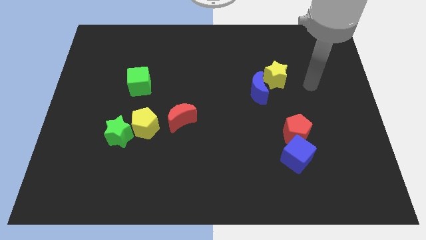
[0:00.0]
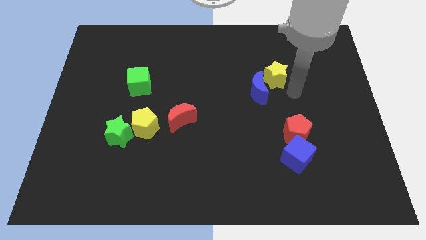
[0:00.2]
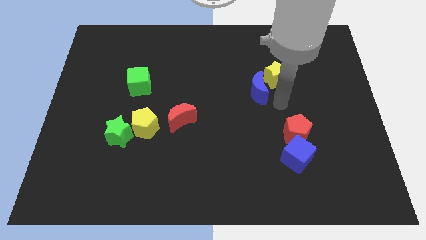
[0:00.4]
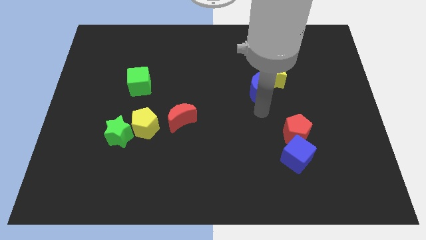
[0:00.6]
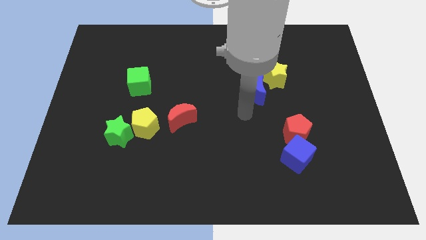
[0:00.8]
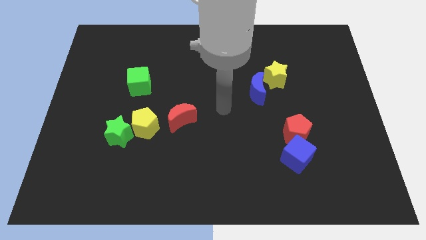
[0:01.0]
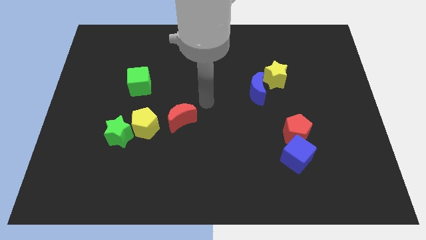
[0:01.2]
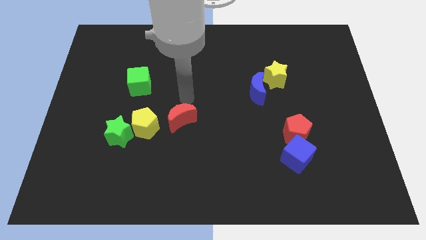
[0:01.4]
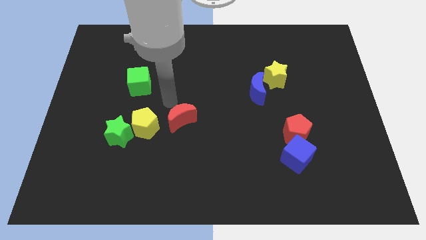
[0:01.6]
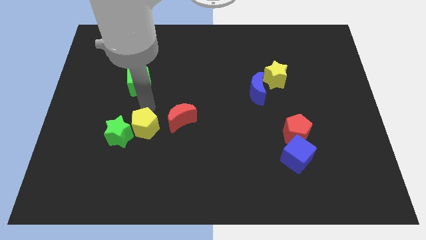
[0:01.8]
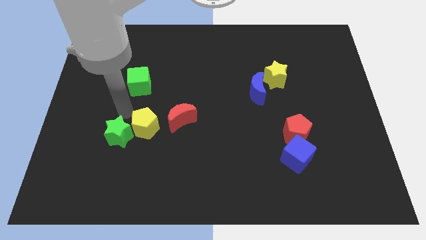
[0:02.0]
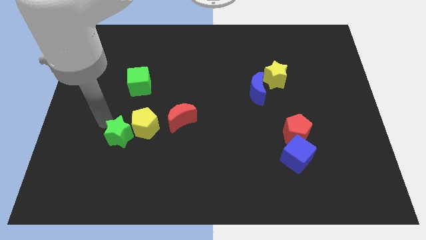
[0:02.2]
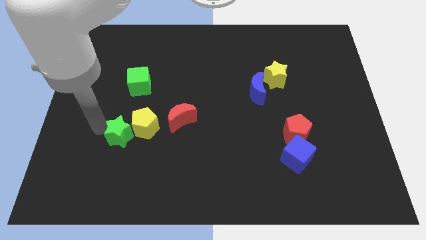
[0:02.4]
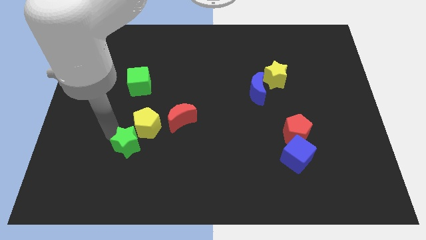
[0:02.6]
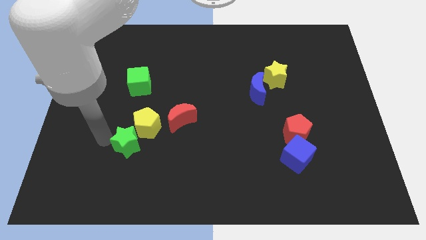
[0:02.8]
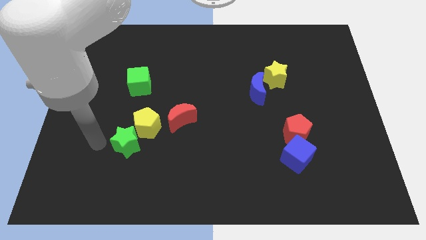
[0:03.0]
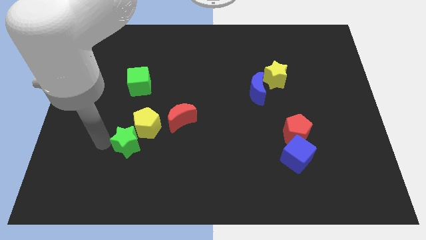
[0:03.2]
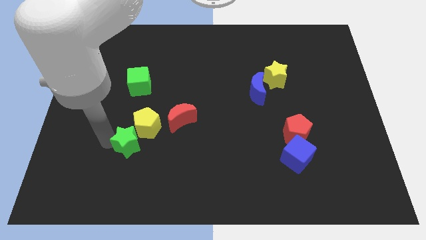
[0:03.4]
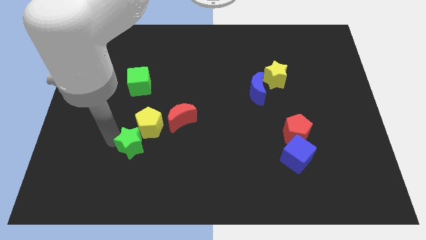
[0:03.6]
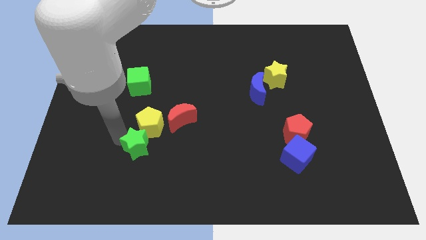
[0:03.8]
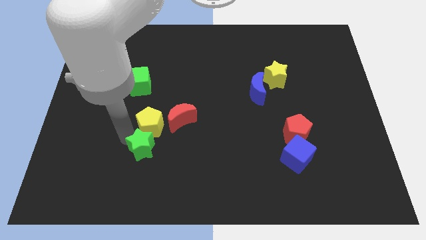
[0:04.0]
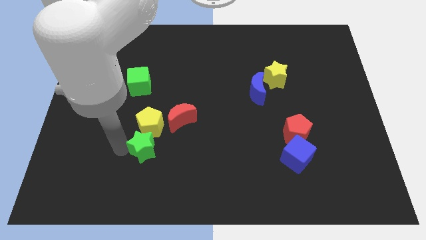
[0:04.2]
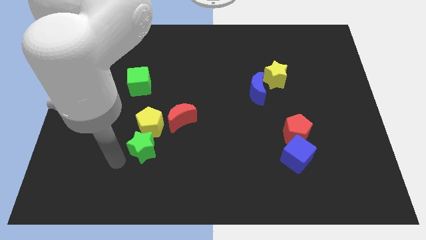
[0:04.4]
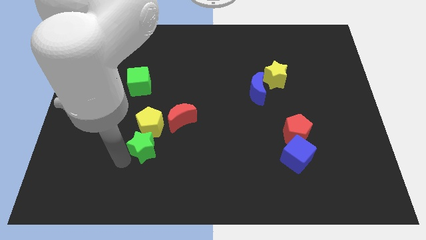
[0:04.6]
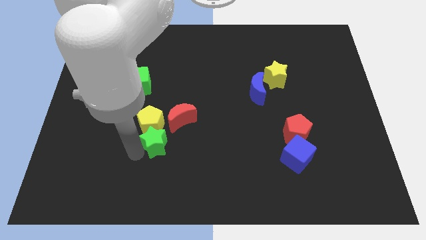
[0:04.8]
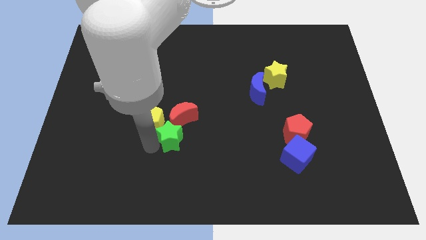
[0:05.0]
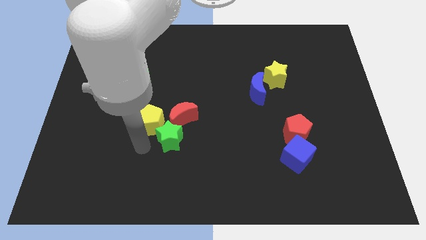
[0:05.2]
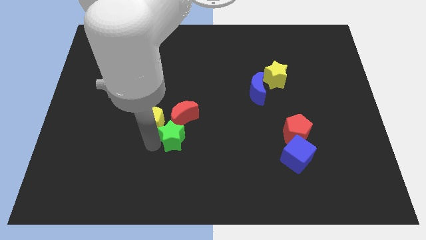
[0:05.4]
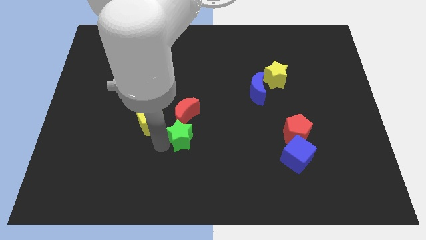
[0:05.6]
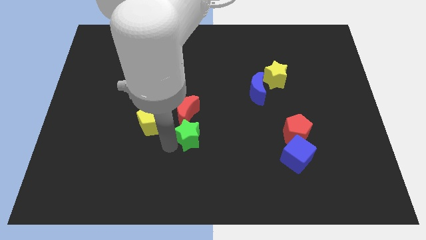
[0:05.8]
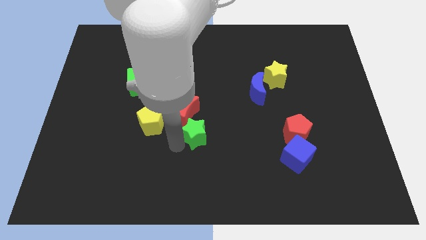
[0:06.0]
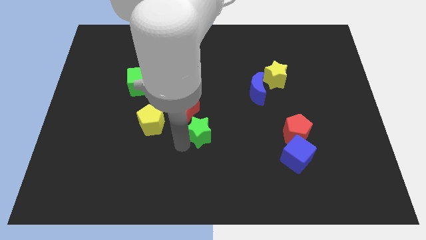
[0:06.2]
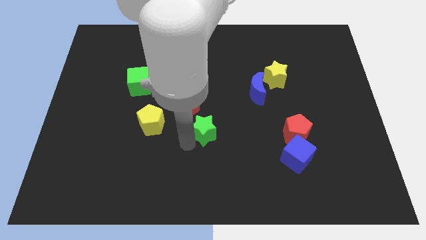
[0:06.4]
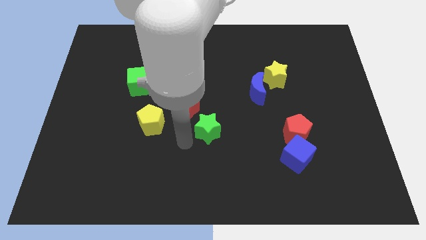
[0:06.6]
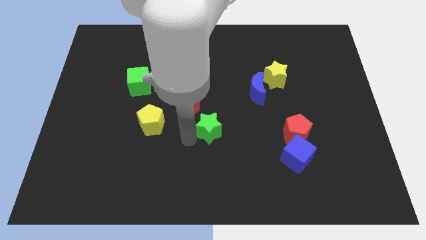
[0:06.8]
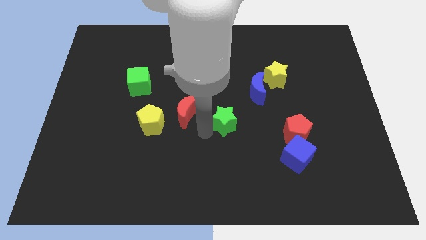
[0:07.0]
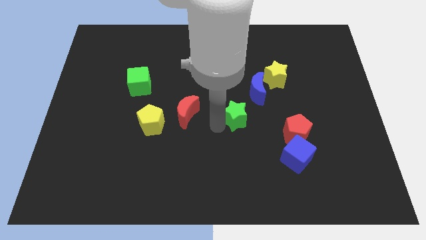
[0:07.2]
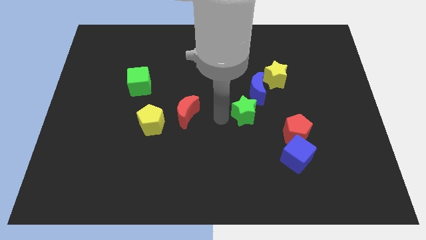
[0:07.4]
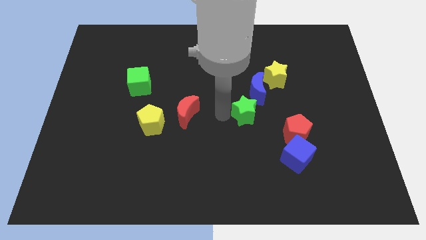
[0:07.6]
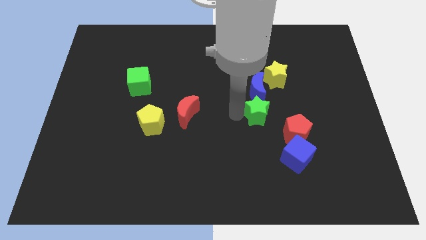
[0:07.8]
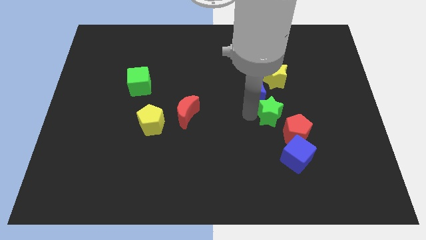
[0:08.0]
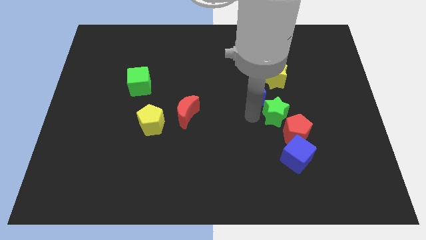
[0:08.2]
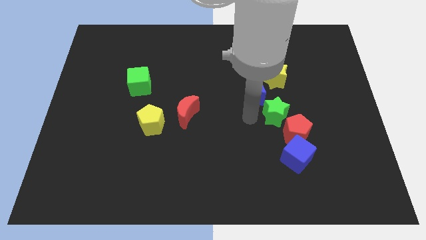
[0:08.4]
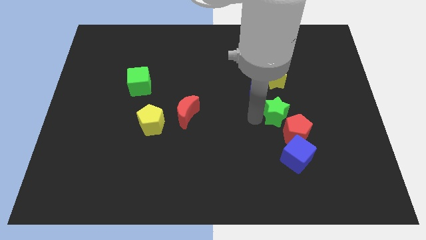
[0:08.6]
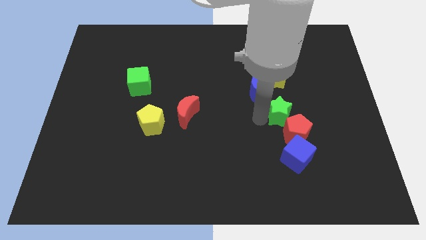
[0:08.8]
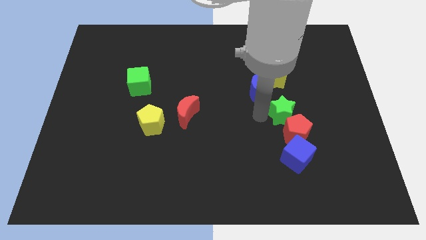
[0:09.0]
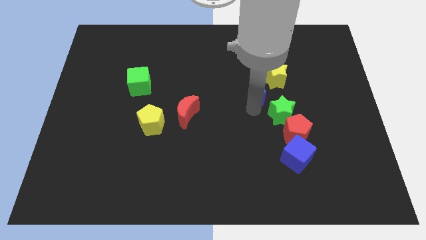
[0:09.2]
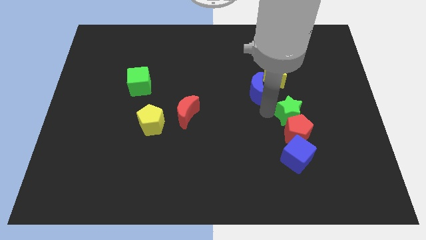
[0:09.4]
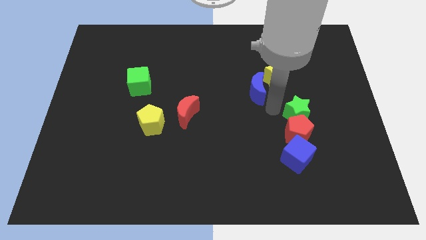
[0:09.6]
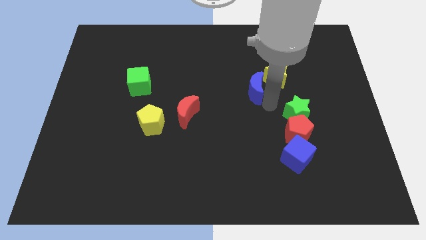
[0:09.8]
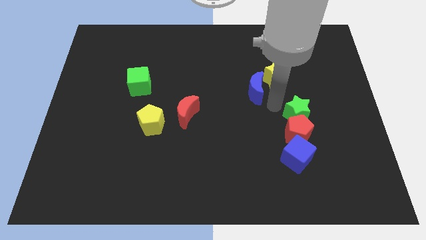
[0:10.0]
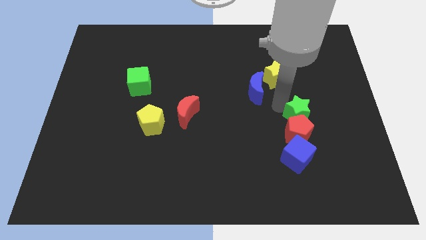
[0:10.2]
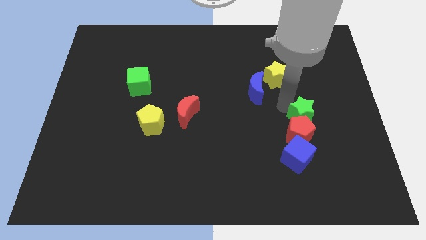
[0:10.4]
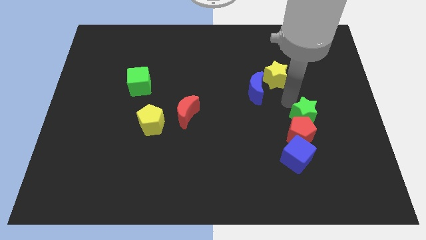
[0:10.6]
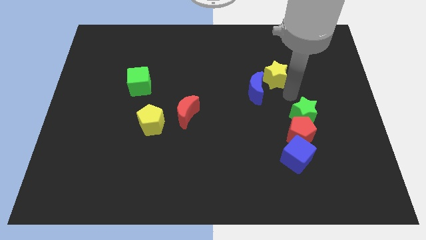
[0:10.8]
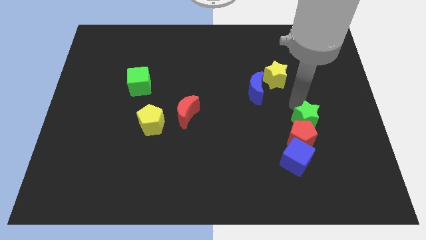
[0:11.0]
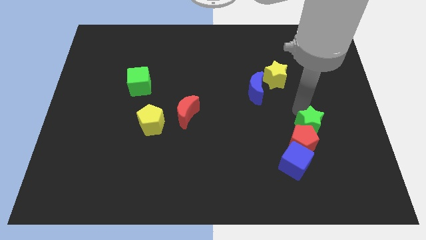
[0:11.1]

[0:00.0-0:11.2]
slide the green star to the top right of the blue cube

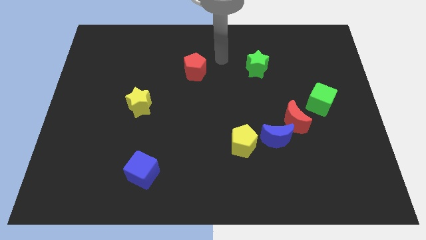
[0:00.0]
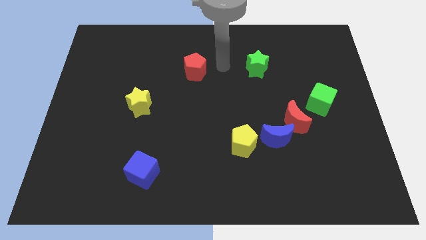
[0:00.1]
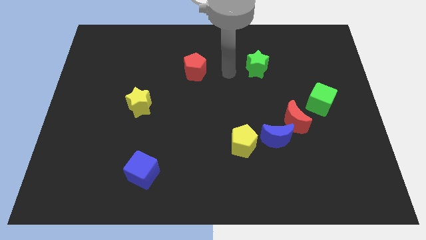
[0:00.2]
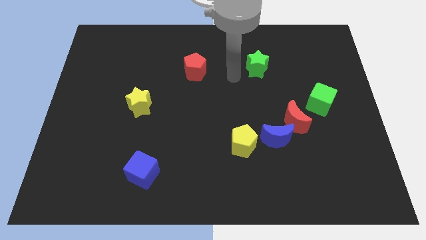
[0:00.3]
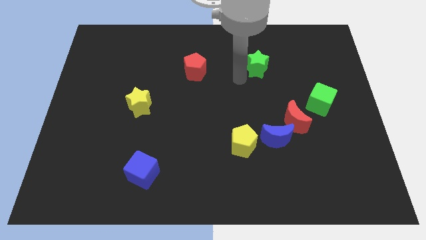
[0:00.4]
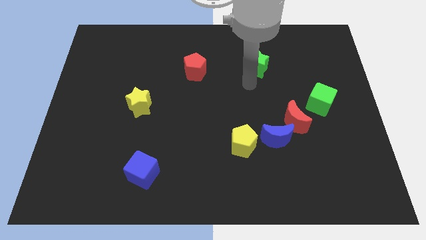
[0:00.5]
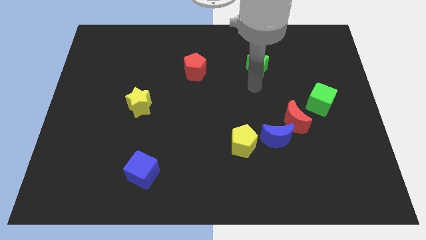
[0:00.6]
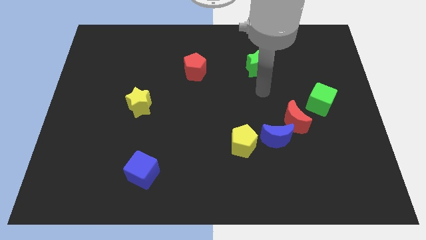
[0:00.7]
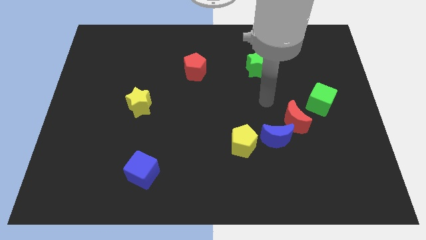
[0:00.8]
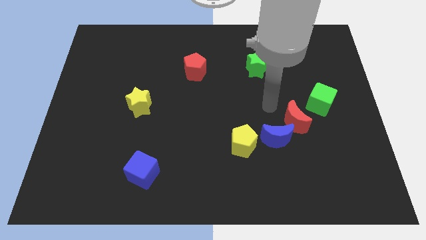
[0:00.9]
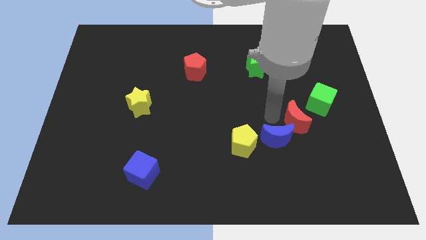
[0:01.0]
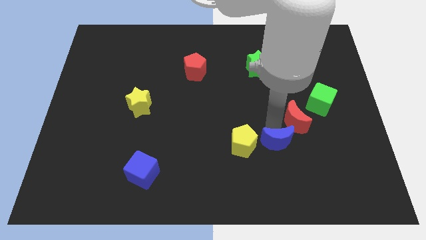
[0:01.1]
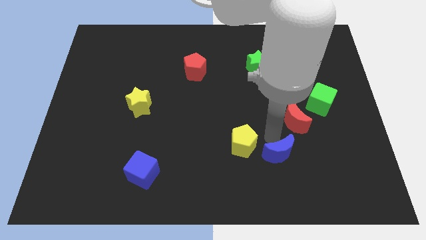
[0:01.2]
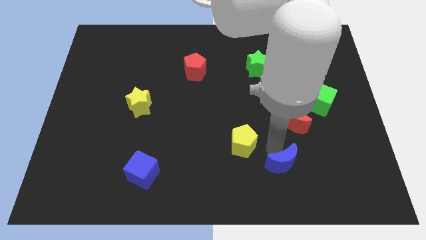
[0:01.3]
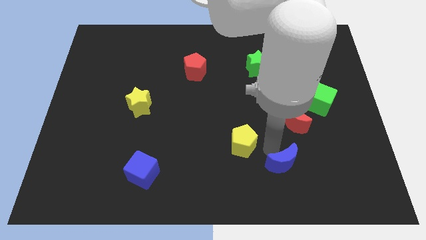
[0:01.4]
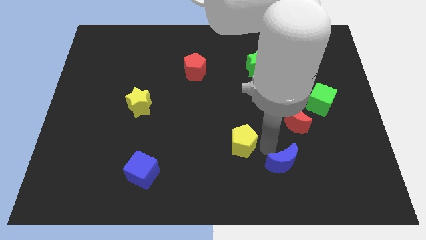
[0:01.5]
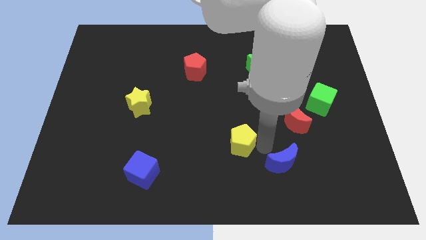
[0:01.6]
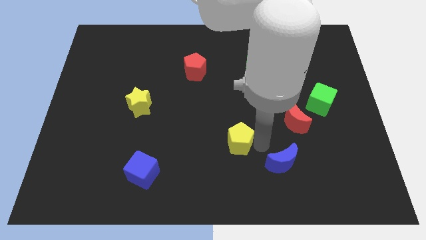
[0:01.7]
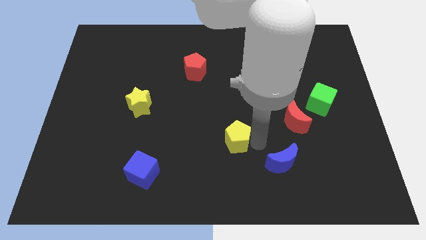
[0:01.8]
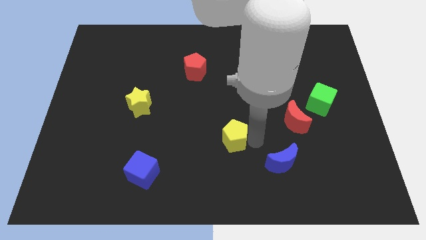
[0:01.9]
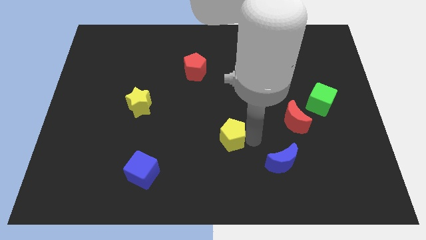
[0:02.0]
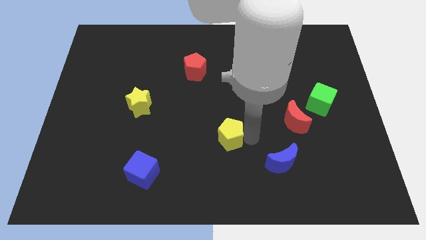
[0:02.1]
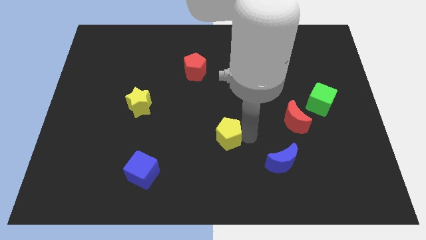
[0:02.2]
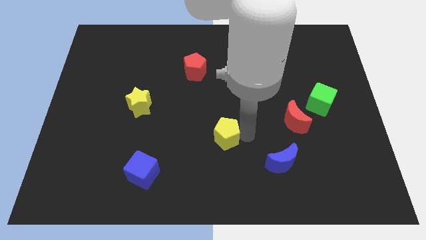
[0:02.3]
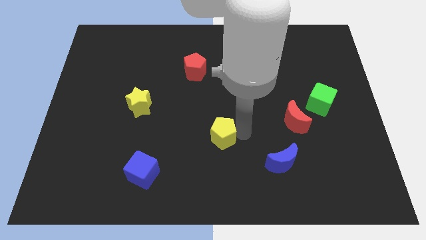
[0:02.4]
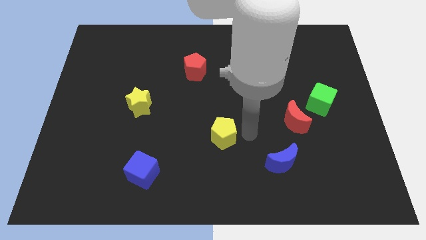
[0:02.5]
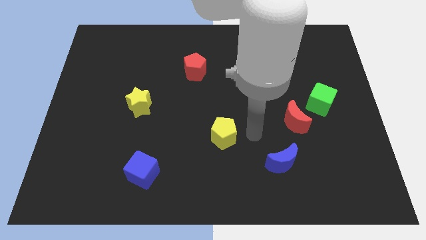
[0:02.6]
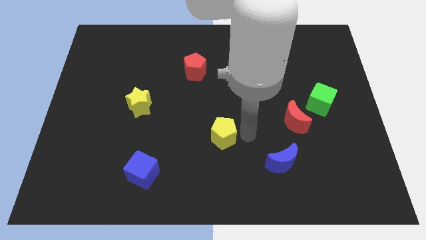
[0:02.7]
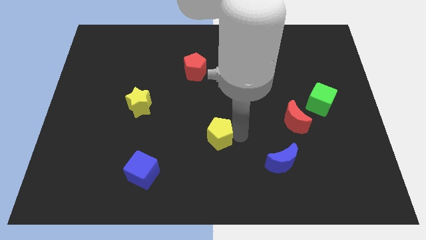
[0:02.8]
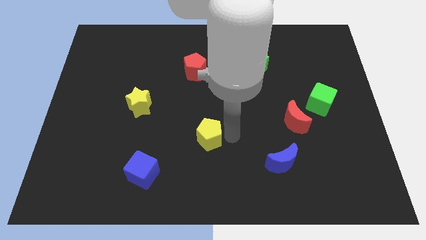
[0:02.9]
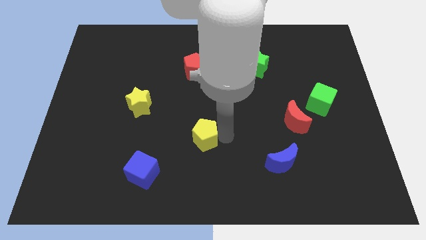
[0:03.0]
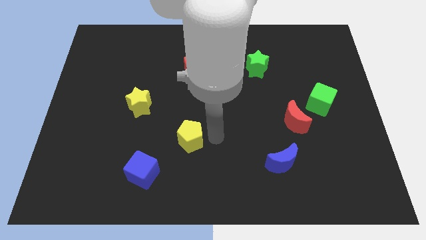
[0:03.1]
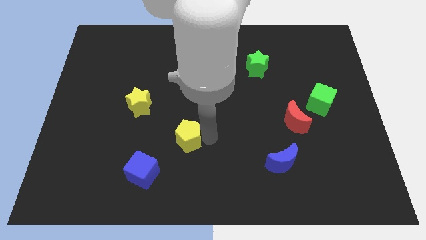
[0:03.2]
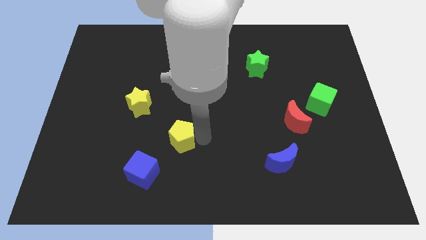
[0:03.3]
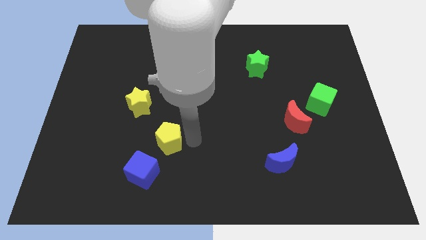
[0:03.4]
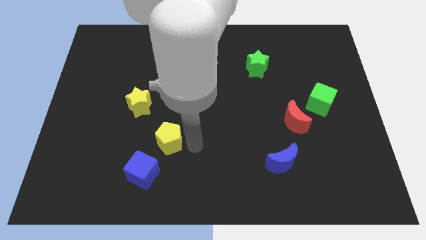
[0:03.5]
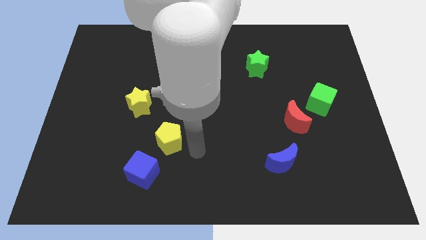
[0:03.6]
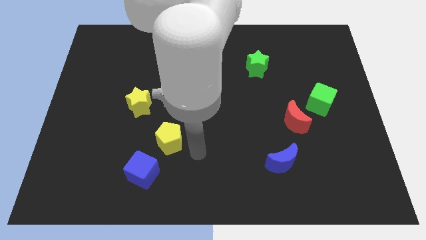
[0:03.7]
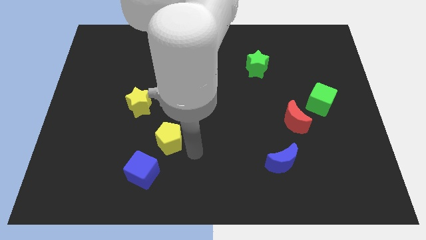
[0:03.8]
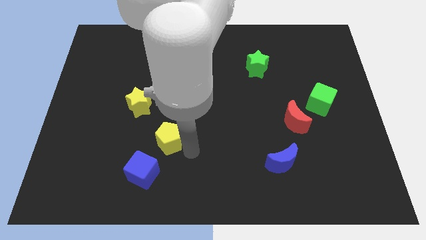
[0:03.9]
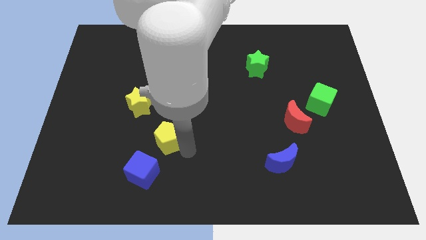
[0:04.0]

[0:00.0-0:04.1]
push the yellow pentagon to the top of the blue cube
